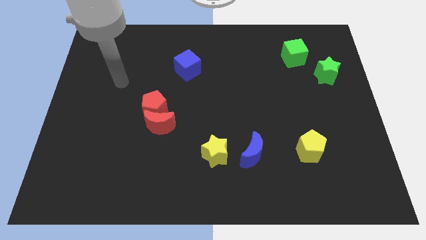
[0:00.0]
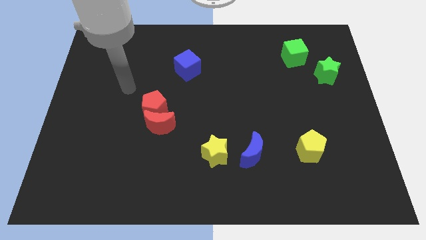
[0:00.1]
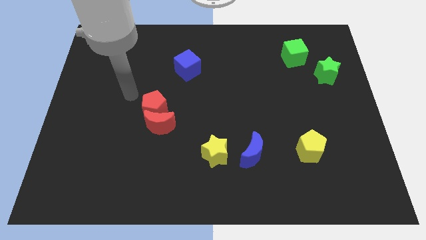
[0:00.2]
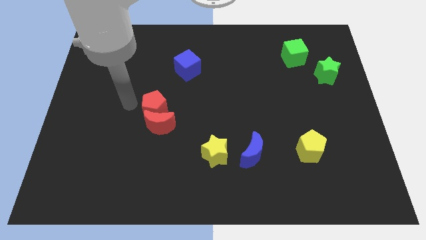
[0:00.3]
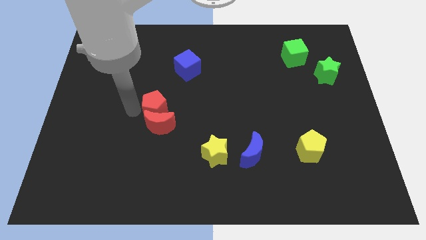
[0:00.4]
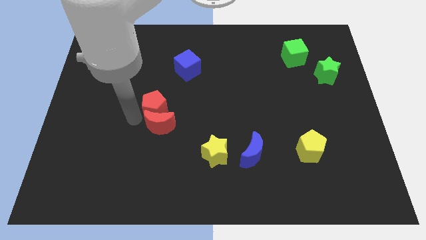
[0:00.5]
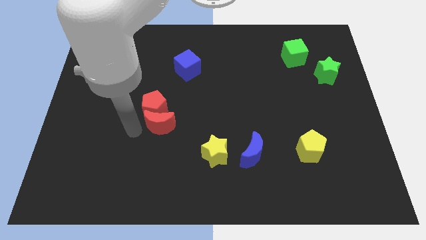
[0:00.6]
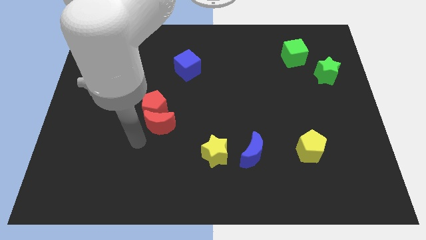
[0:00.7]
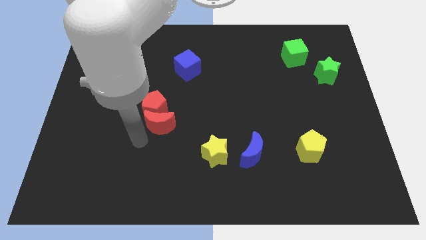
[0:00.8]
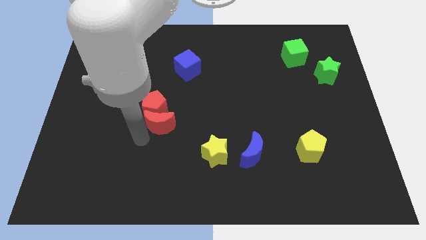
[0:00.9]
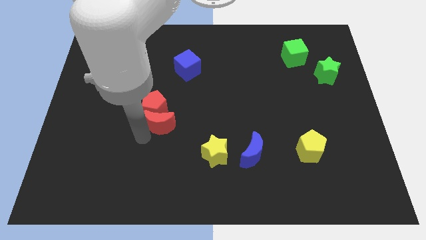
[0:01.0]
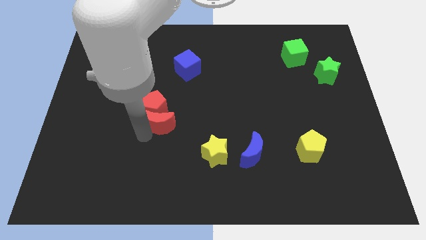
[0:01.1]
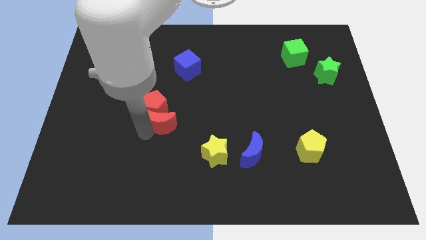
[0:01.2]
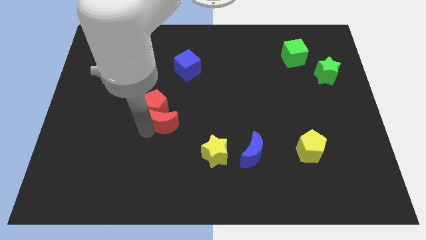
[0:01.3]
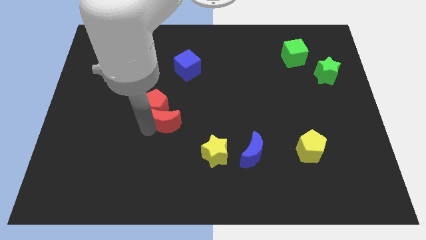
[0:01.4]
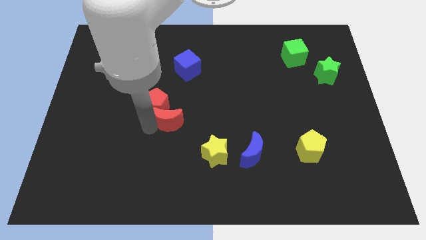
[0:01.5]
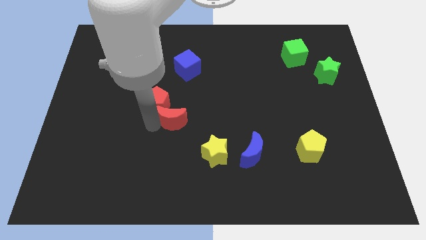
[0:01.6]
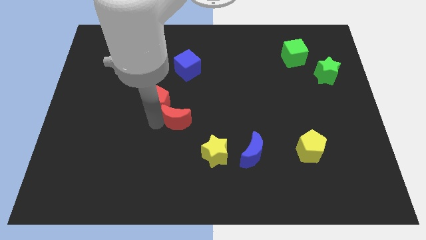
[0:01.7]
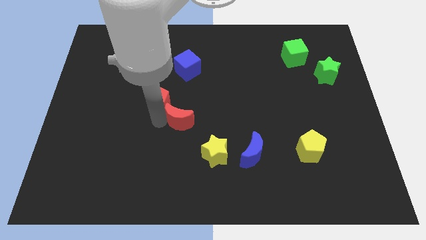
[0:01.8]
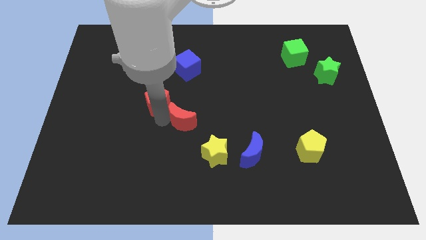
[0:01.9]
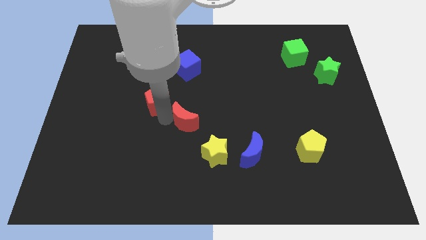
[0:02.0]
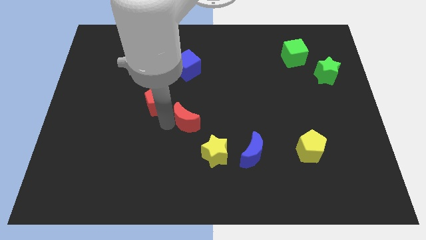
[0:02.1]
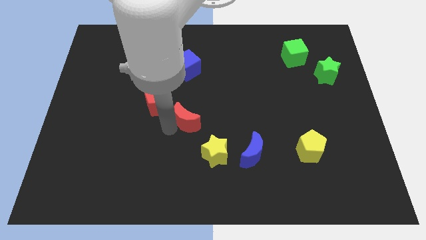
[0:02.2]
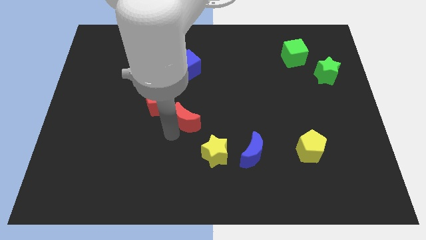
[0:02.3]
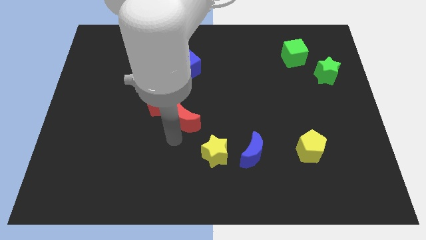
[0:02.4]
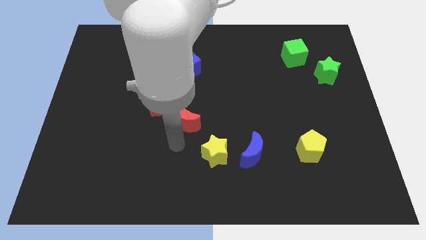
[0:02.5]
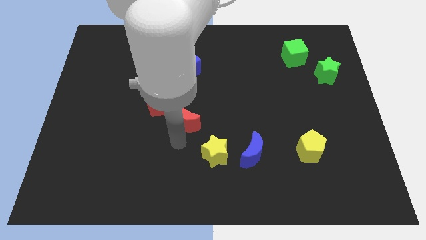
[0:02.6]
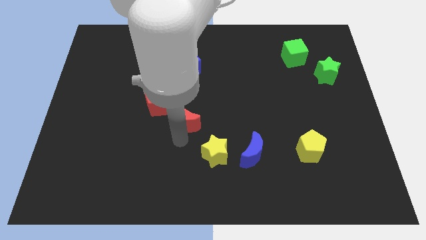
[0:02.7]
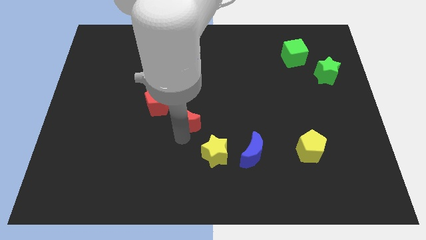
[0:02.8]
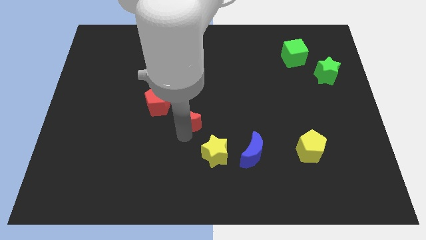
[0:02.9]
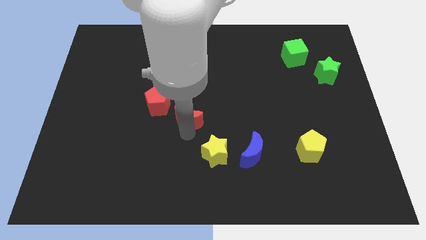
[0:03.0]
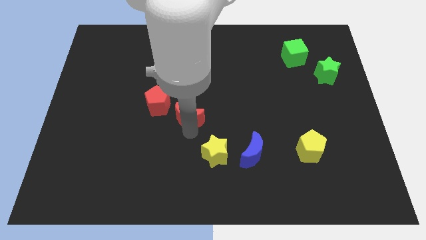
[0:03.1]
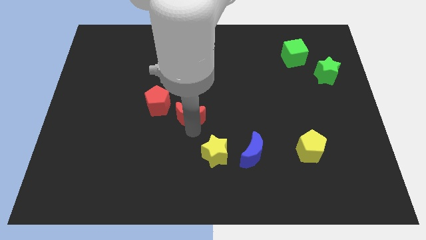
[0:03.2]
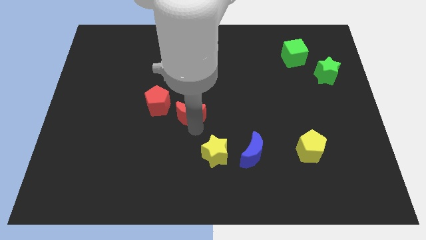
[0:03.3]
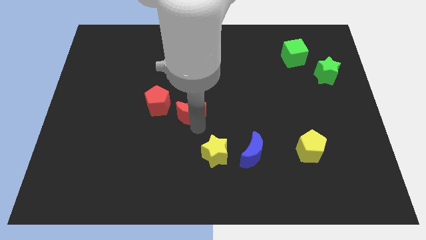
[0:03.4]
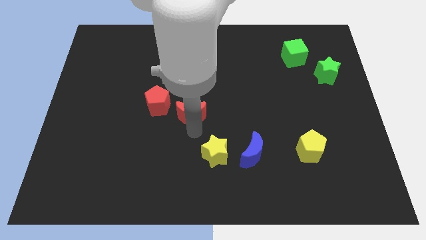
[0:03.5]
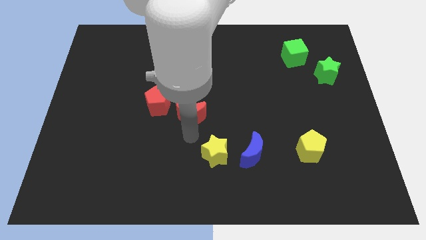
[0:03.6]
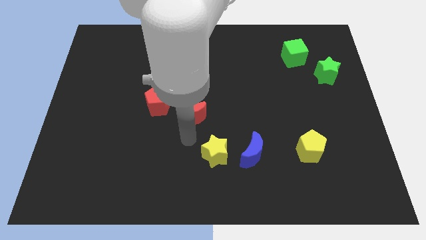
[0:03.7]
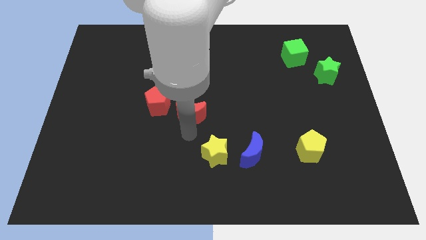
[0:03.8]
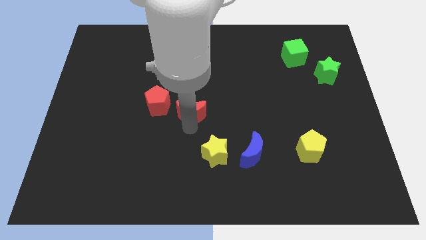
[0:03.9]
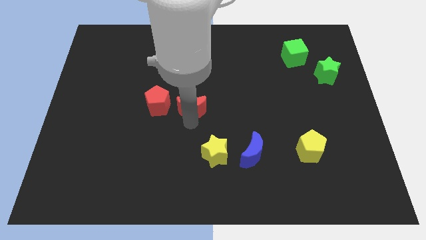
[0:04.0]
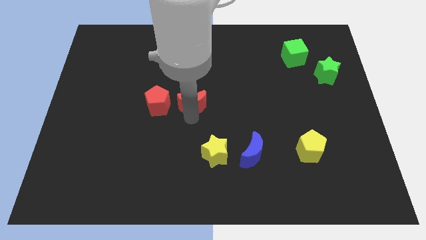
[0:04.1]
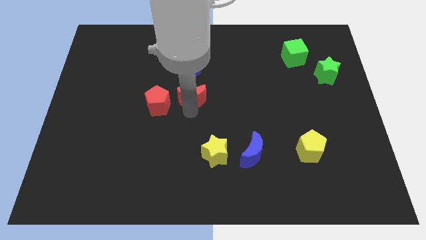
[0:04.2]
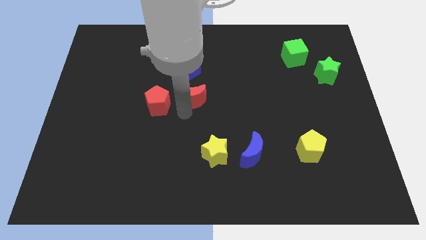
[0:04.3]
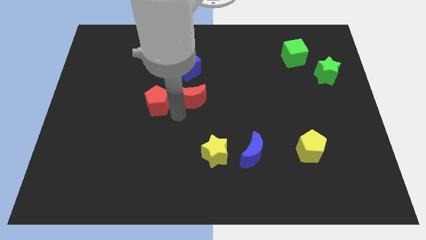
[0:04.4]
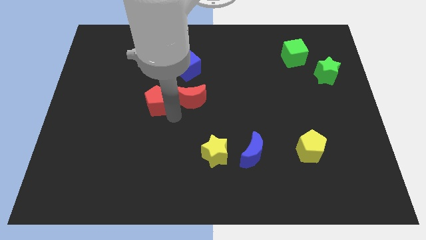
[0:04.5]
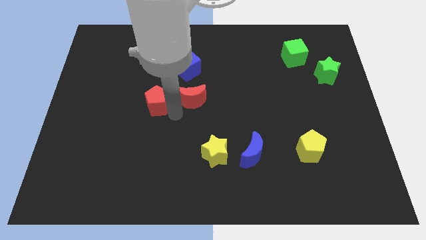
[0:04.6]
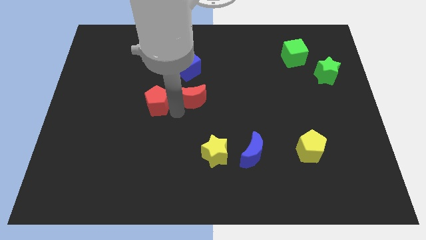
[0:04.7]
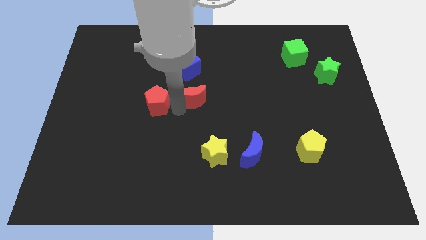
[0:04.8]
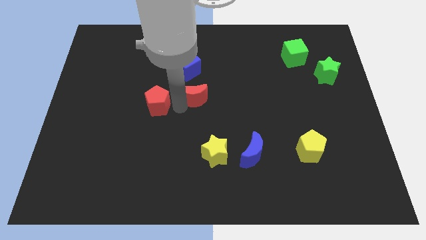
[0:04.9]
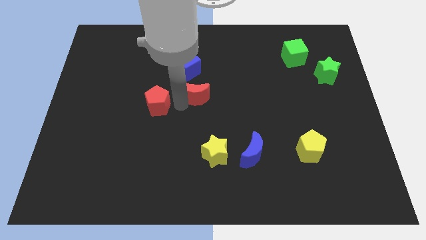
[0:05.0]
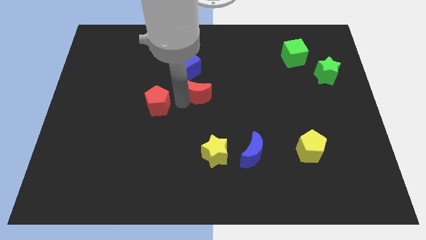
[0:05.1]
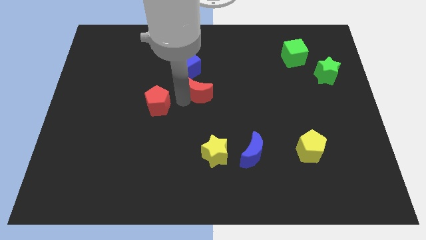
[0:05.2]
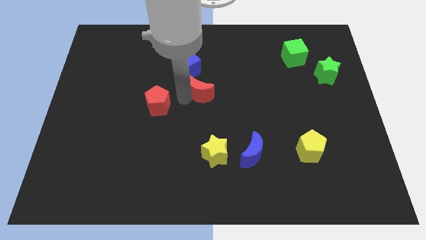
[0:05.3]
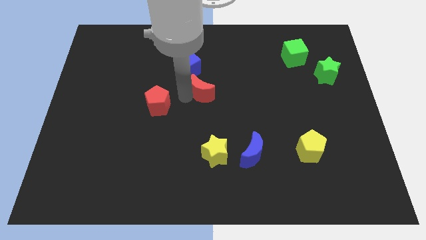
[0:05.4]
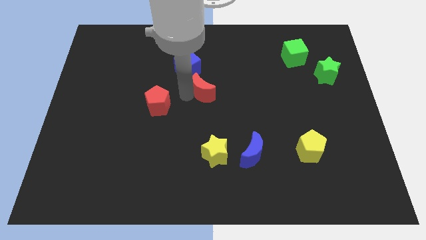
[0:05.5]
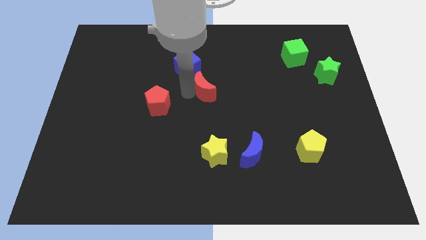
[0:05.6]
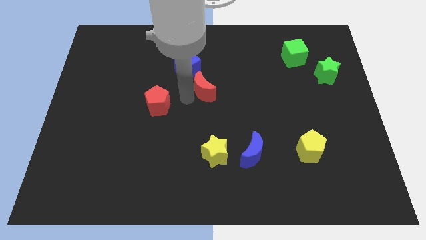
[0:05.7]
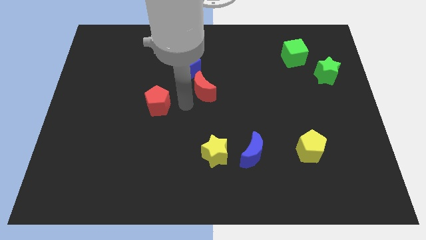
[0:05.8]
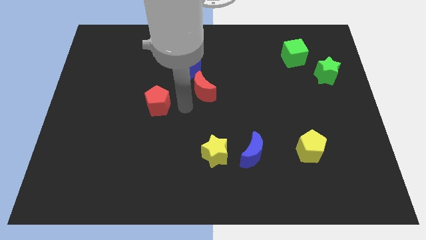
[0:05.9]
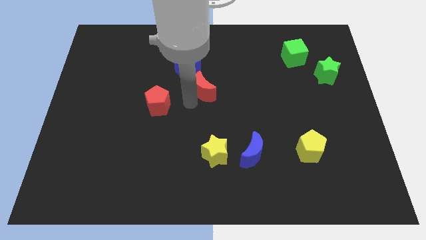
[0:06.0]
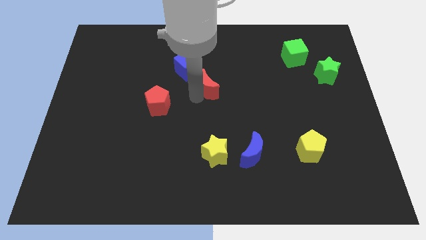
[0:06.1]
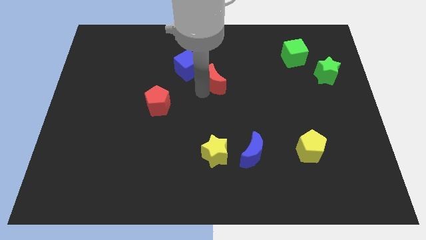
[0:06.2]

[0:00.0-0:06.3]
push the red moon right of the blue cube

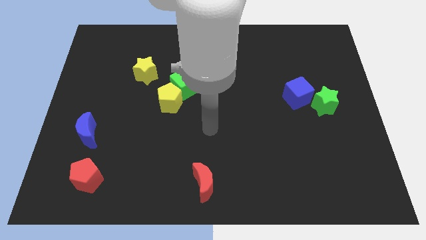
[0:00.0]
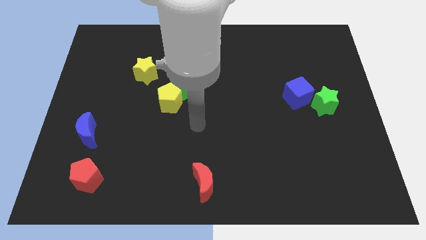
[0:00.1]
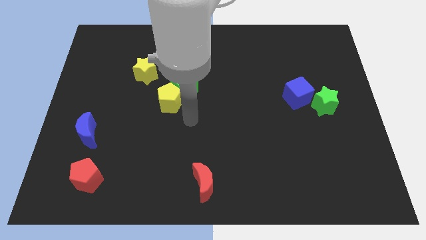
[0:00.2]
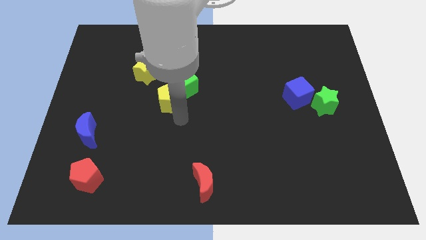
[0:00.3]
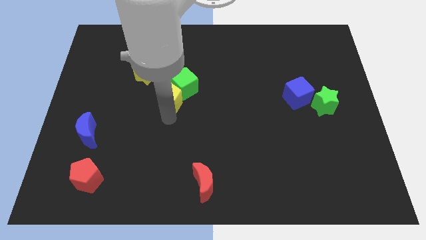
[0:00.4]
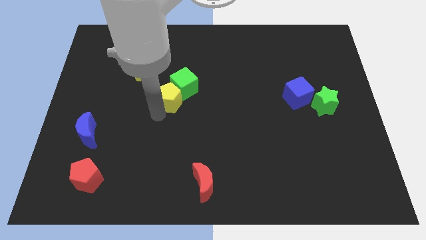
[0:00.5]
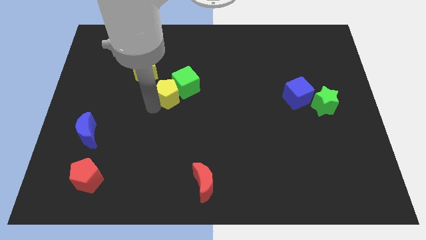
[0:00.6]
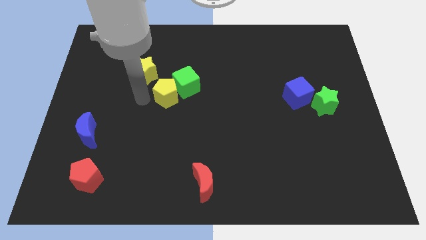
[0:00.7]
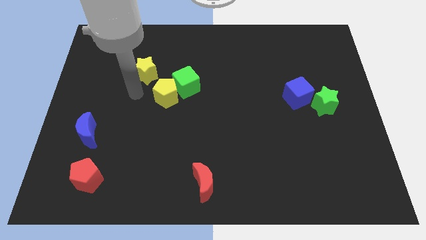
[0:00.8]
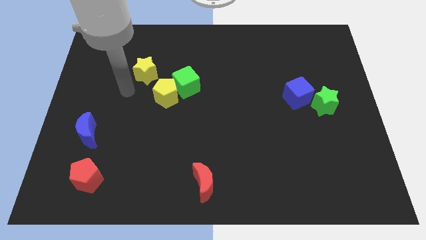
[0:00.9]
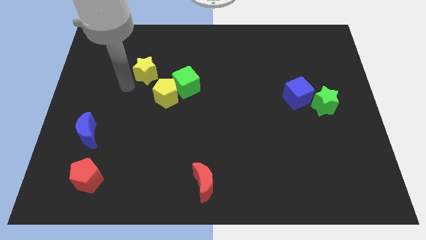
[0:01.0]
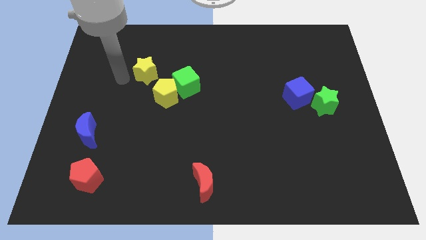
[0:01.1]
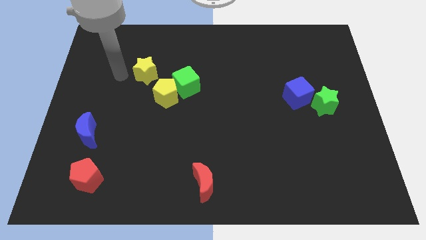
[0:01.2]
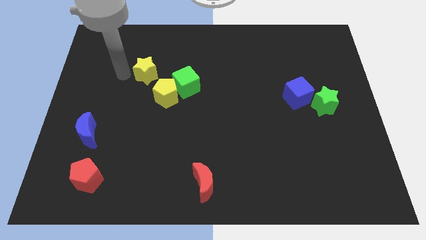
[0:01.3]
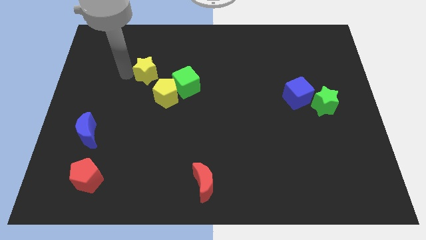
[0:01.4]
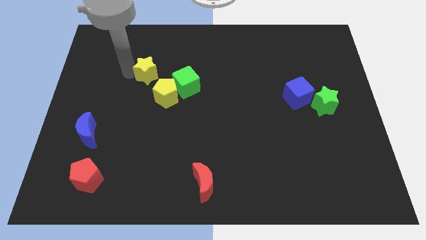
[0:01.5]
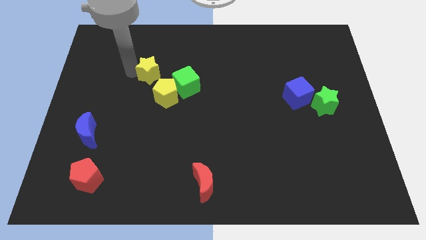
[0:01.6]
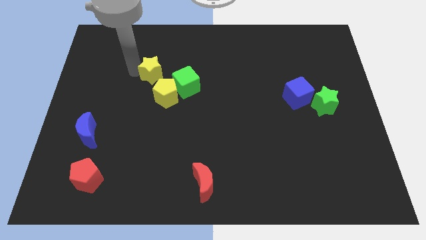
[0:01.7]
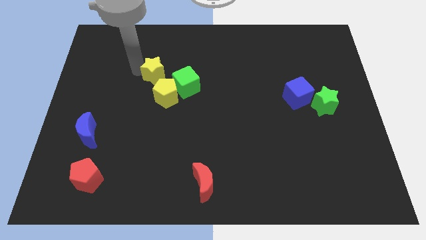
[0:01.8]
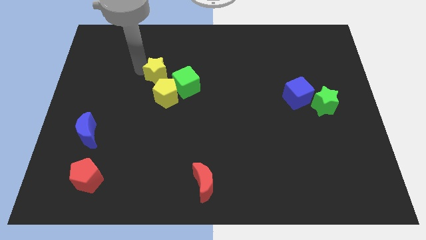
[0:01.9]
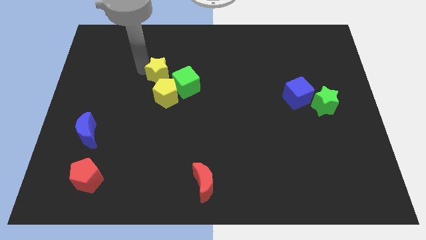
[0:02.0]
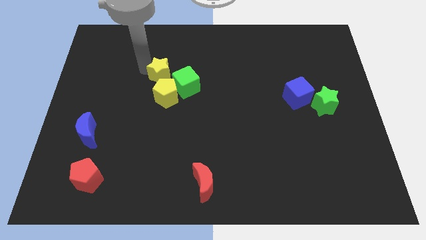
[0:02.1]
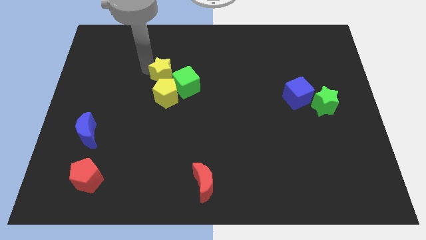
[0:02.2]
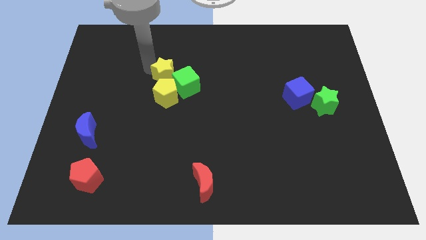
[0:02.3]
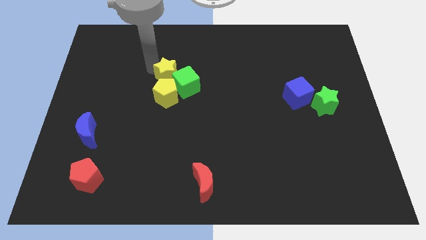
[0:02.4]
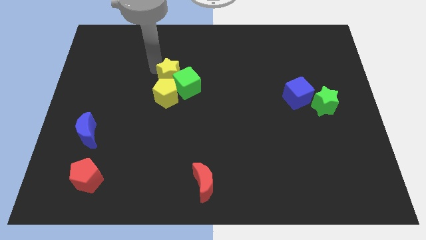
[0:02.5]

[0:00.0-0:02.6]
slide the yellow star to the top right side of the yellow pentagon
